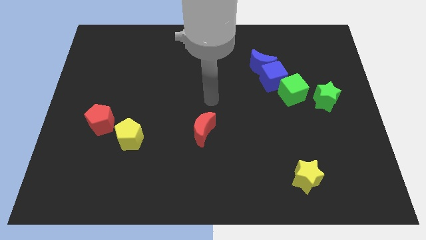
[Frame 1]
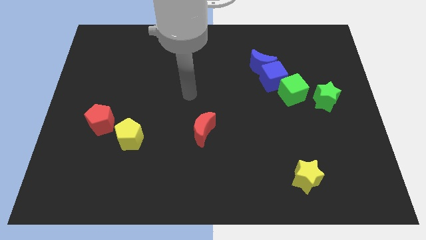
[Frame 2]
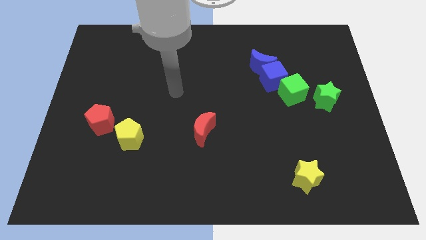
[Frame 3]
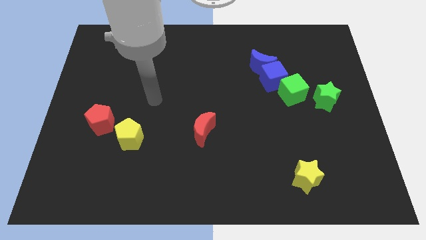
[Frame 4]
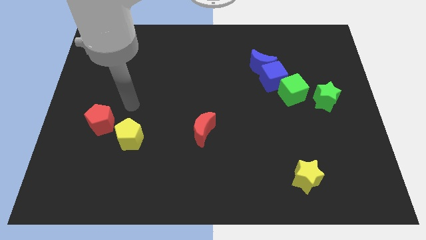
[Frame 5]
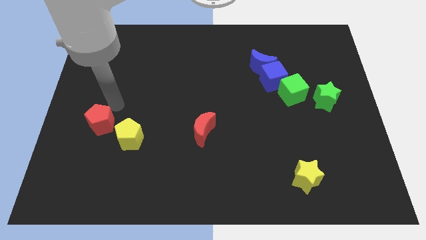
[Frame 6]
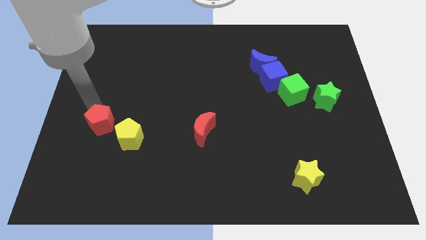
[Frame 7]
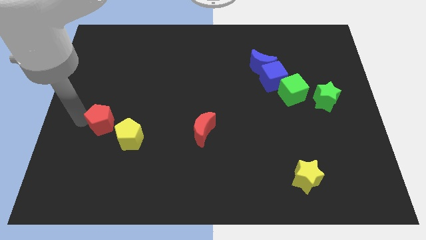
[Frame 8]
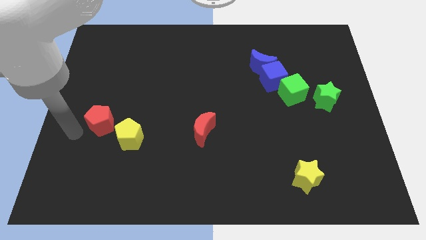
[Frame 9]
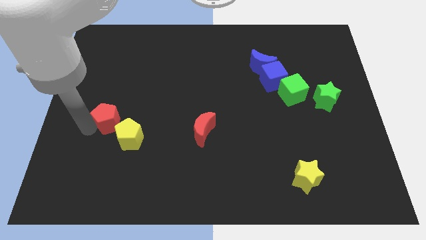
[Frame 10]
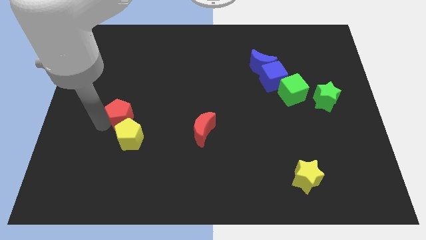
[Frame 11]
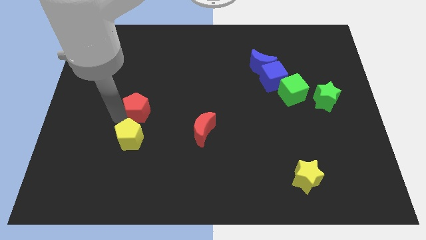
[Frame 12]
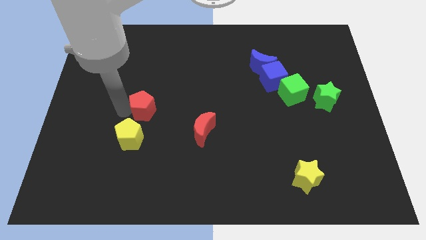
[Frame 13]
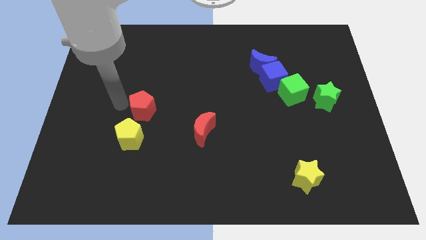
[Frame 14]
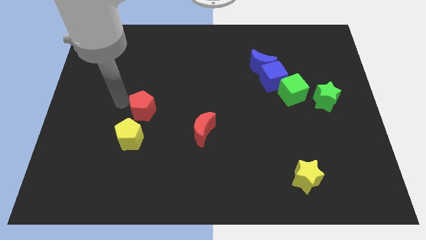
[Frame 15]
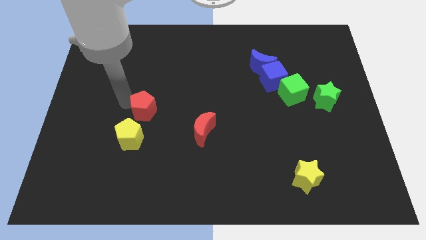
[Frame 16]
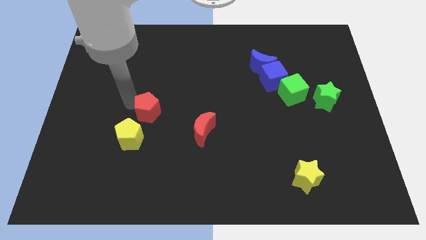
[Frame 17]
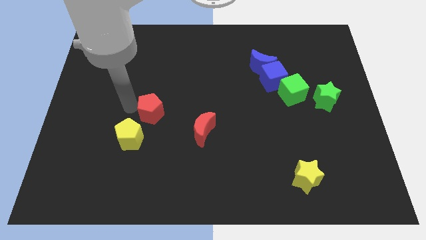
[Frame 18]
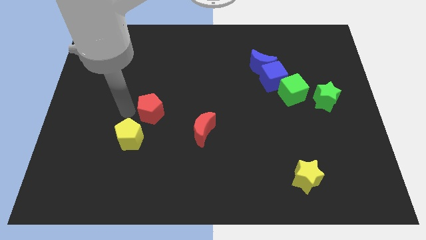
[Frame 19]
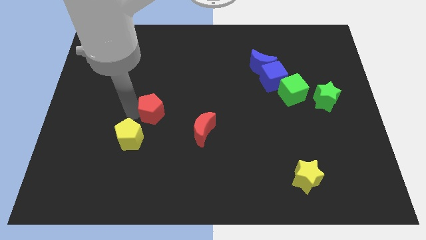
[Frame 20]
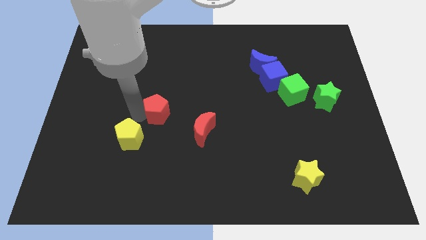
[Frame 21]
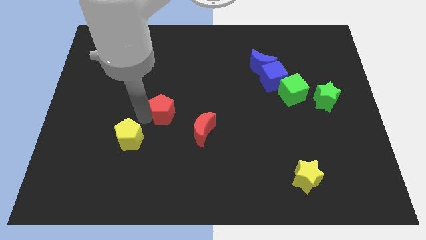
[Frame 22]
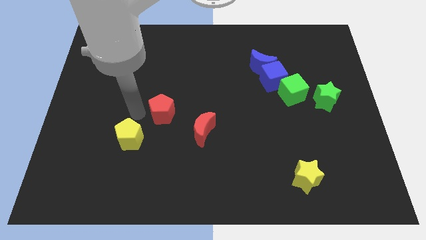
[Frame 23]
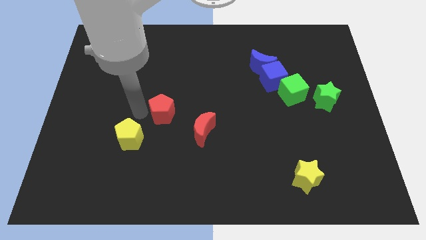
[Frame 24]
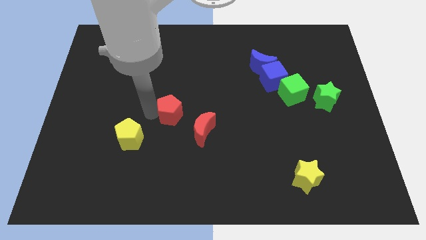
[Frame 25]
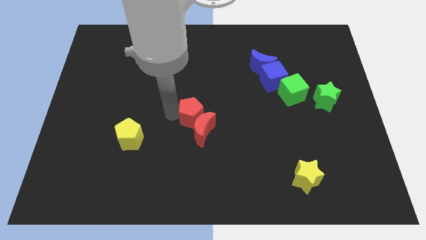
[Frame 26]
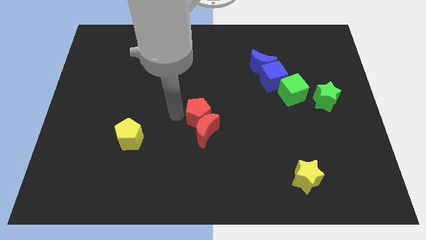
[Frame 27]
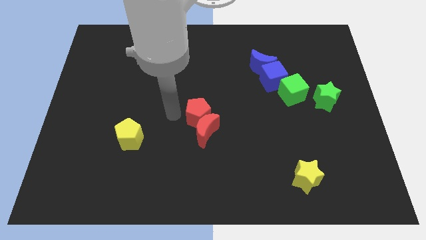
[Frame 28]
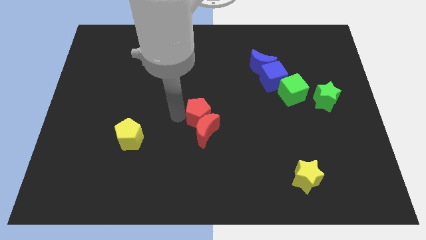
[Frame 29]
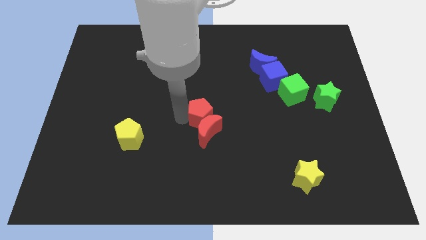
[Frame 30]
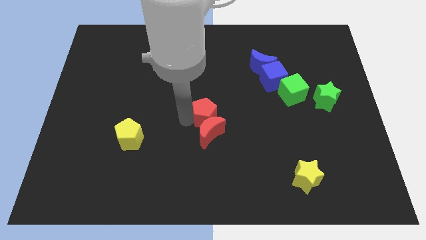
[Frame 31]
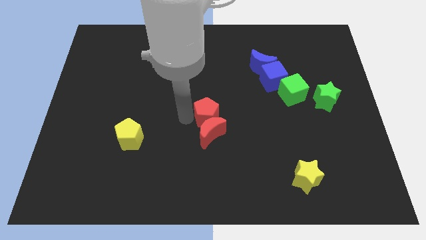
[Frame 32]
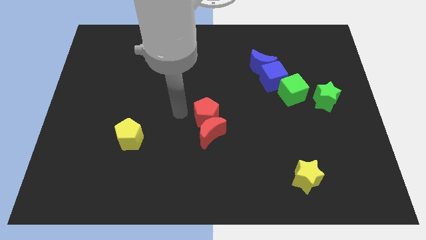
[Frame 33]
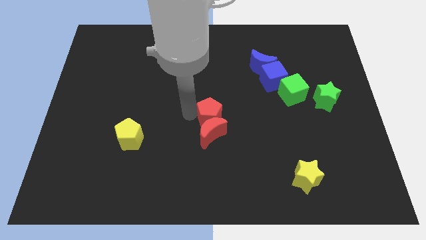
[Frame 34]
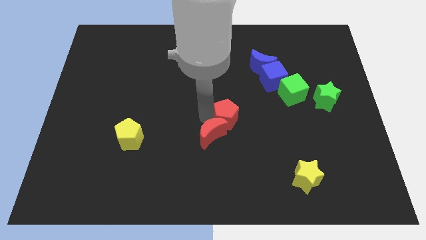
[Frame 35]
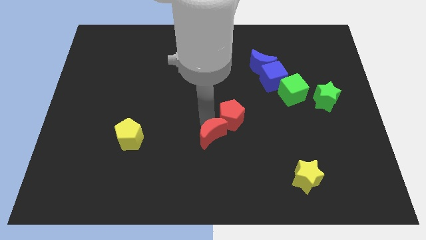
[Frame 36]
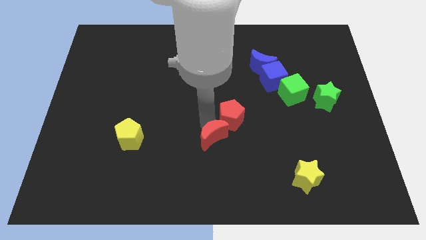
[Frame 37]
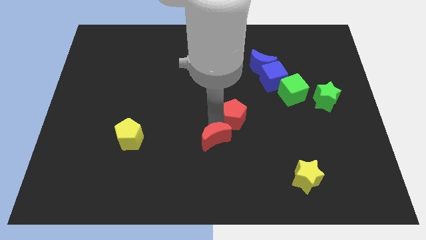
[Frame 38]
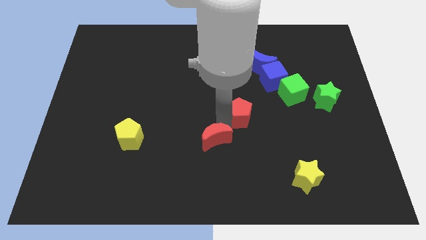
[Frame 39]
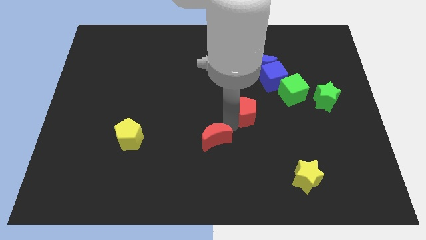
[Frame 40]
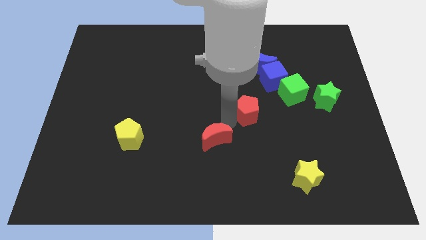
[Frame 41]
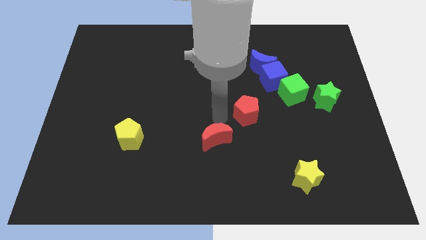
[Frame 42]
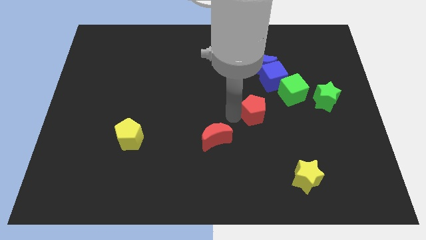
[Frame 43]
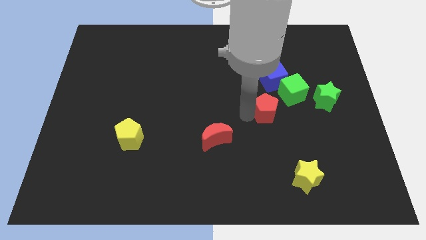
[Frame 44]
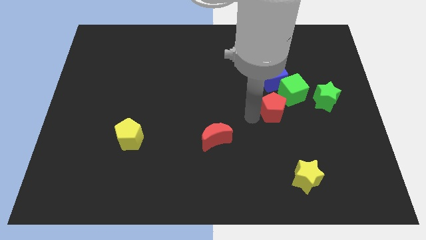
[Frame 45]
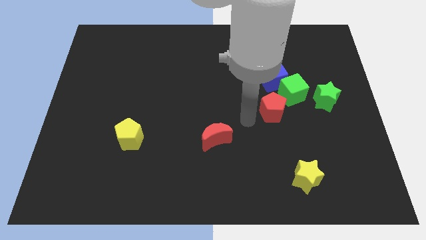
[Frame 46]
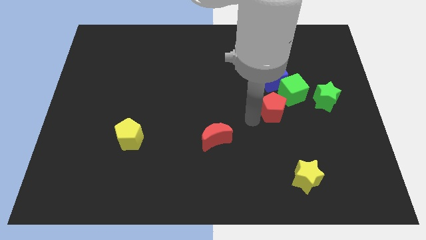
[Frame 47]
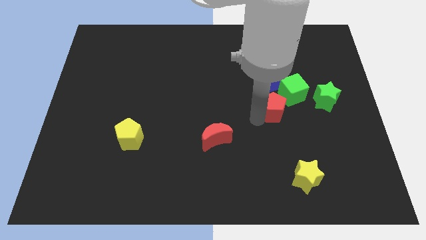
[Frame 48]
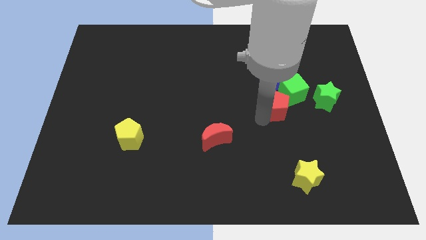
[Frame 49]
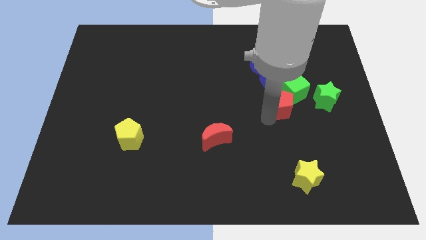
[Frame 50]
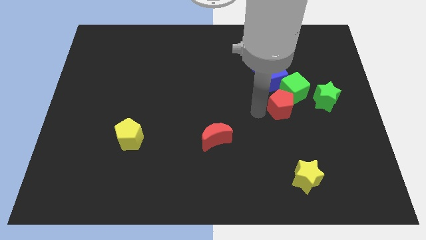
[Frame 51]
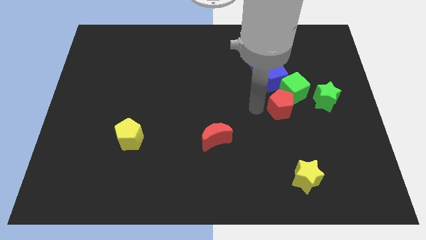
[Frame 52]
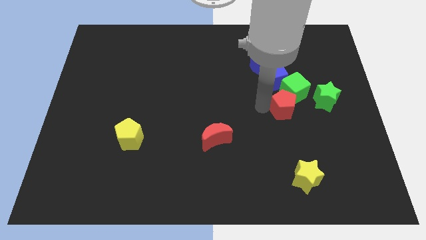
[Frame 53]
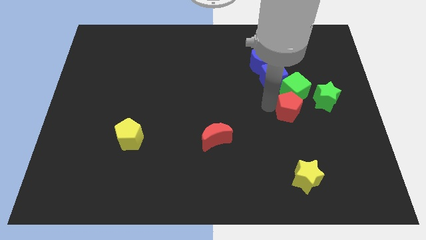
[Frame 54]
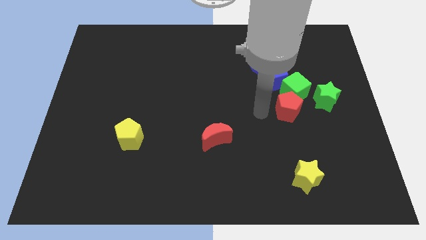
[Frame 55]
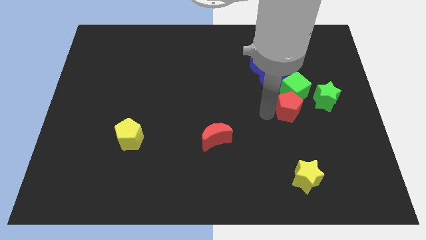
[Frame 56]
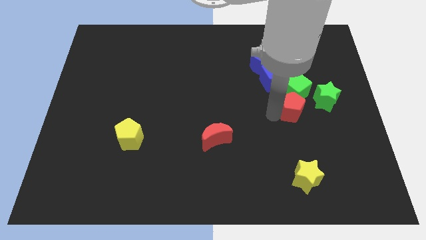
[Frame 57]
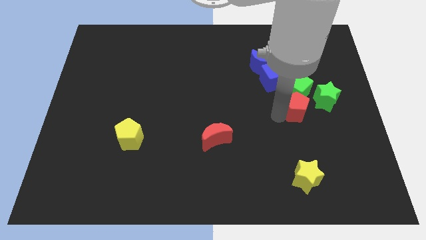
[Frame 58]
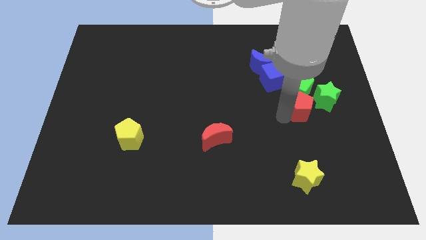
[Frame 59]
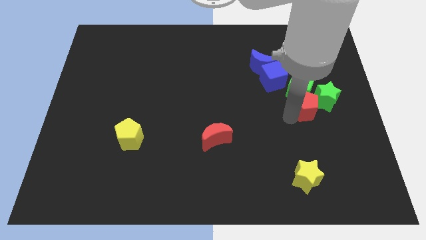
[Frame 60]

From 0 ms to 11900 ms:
slide the red pentagon close to the green star

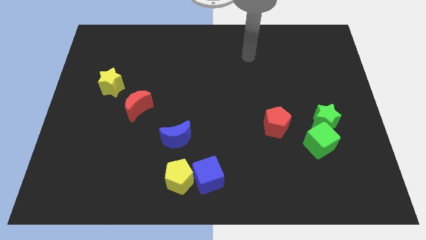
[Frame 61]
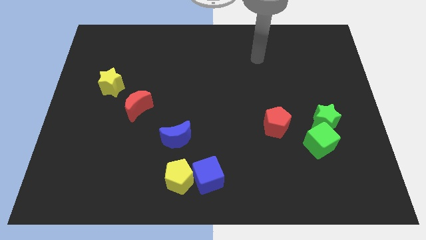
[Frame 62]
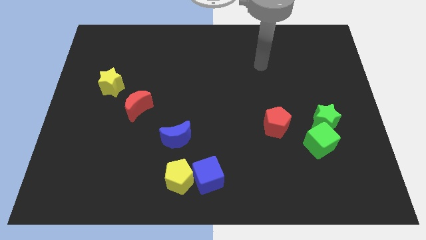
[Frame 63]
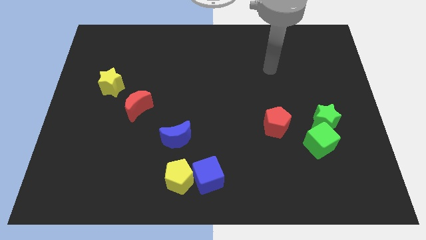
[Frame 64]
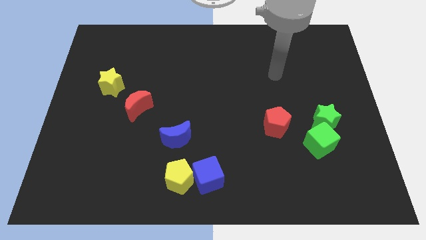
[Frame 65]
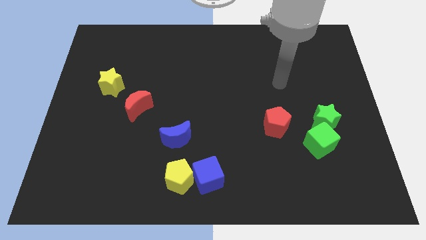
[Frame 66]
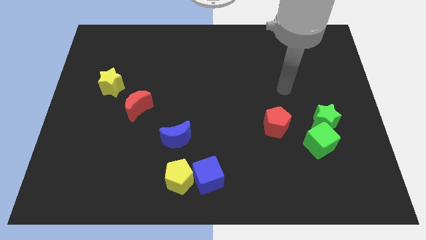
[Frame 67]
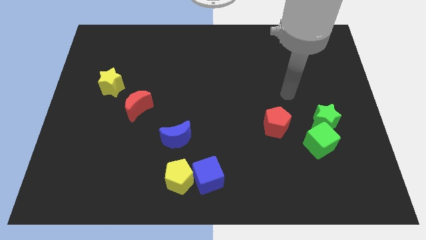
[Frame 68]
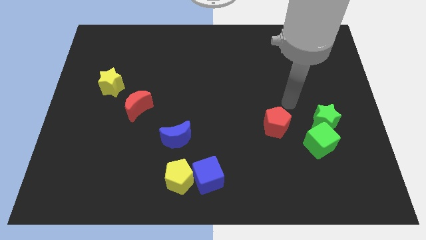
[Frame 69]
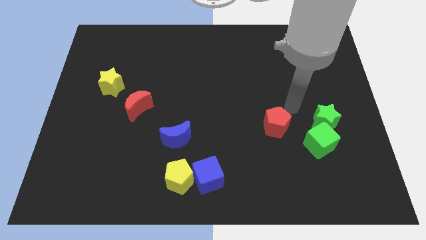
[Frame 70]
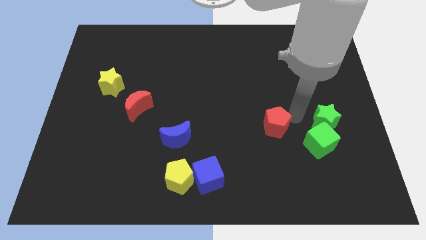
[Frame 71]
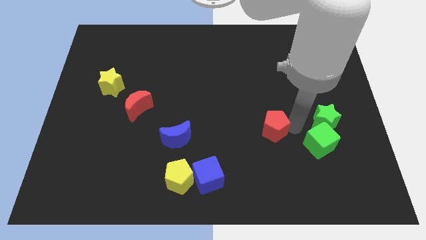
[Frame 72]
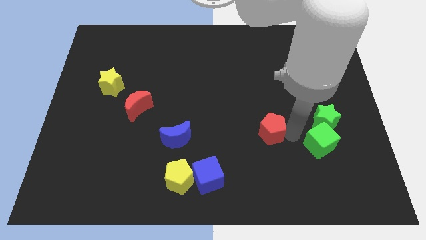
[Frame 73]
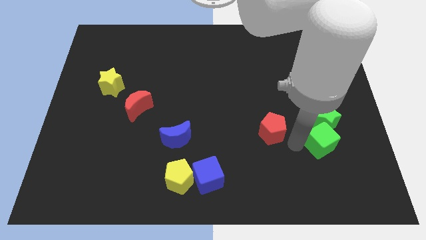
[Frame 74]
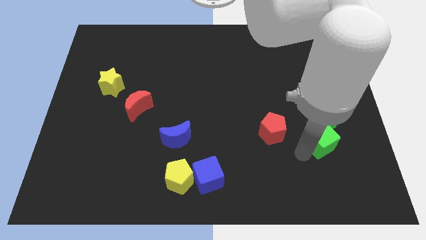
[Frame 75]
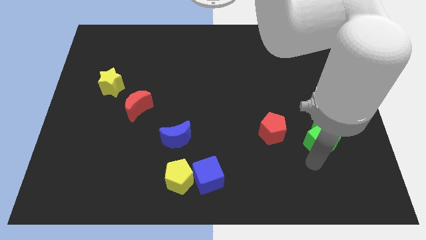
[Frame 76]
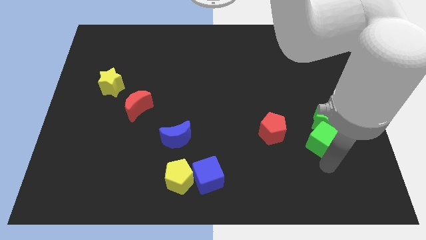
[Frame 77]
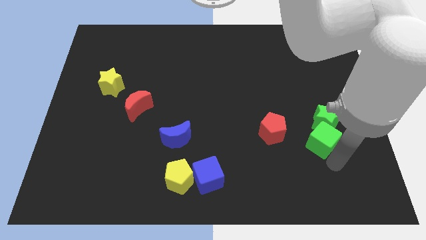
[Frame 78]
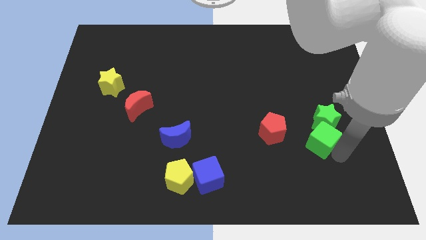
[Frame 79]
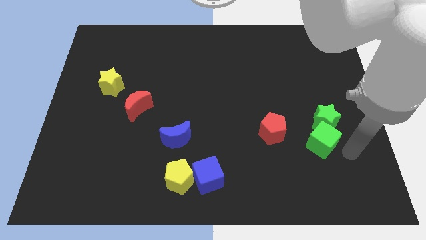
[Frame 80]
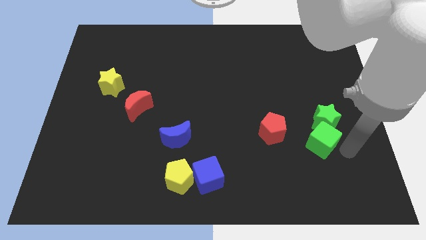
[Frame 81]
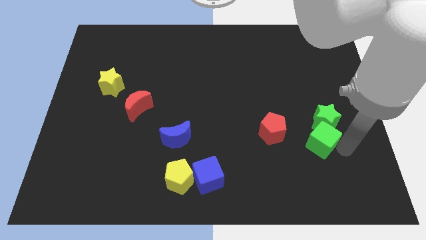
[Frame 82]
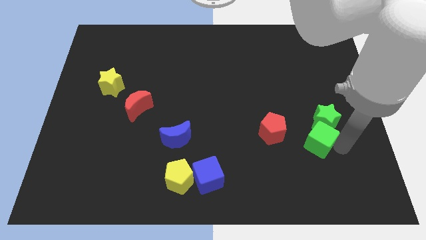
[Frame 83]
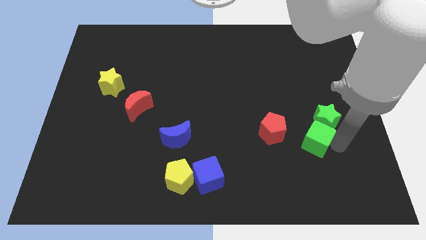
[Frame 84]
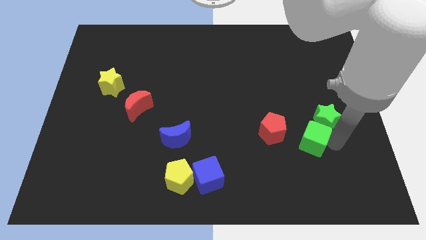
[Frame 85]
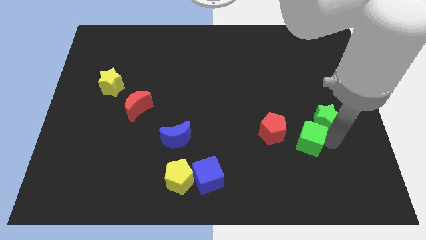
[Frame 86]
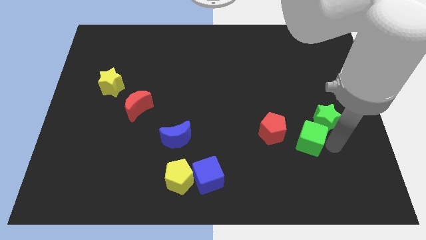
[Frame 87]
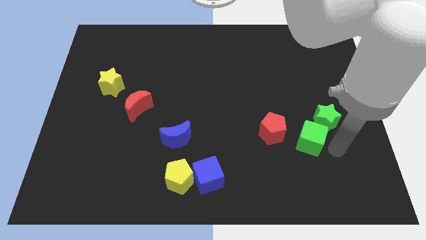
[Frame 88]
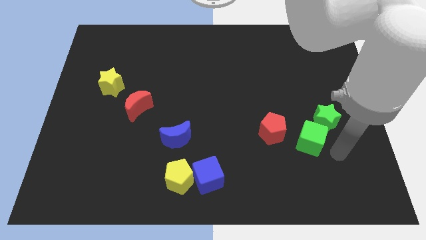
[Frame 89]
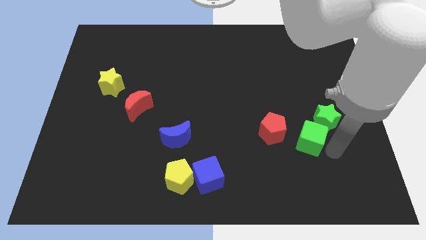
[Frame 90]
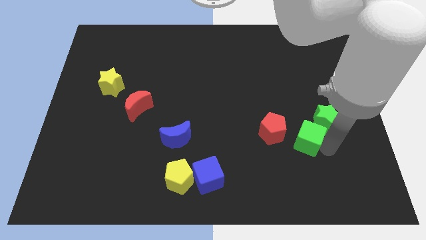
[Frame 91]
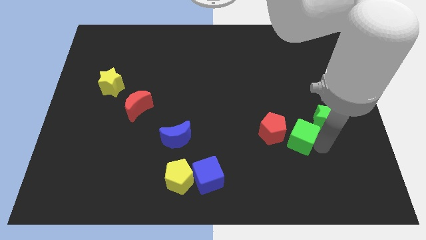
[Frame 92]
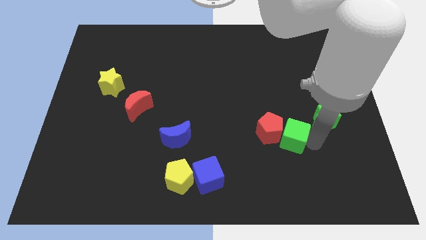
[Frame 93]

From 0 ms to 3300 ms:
move the green cube next to the red pentagon
